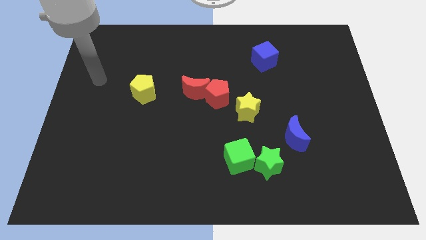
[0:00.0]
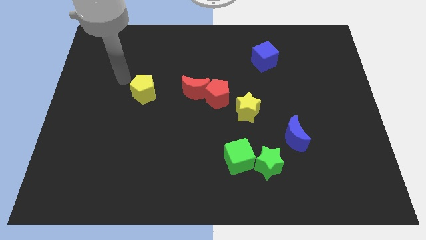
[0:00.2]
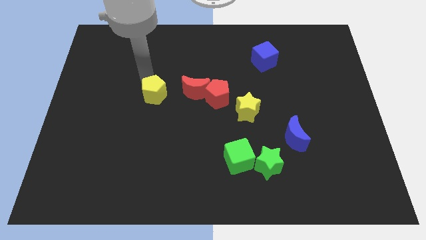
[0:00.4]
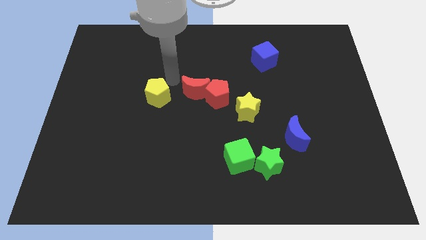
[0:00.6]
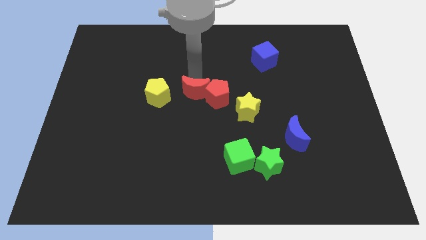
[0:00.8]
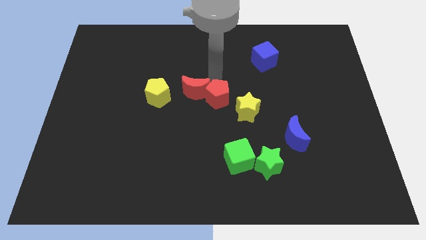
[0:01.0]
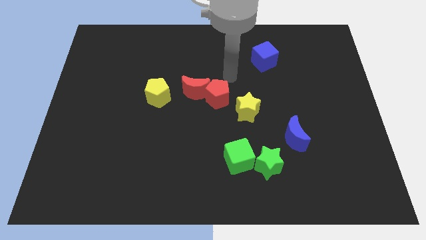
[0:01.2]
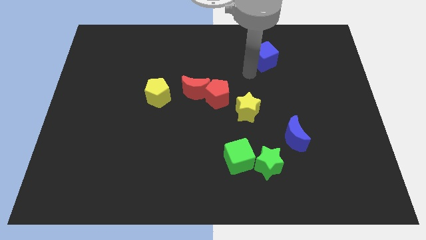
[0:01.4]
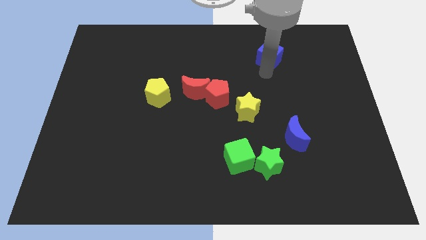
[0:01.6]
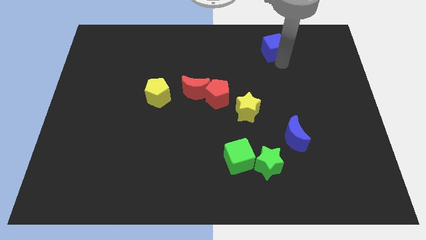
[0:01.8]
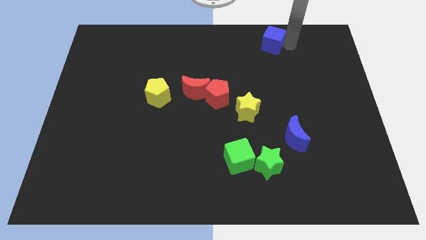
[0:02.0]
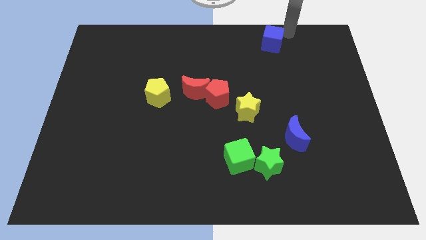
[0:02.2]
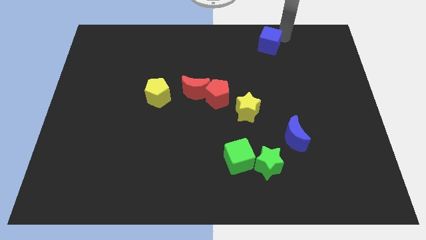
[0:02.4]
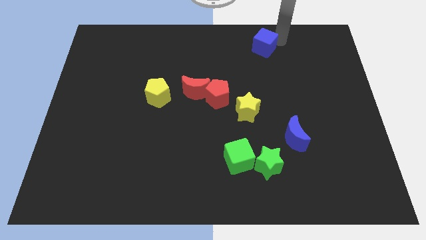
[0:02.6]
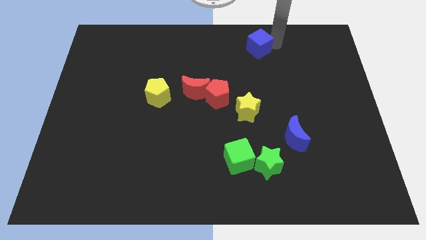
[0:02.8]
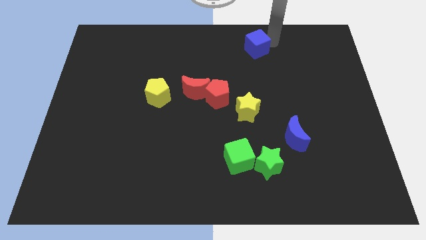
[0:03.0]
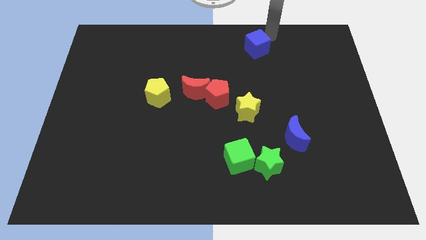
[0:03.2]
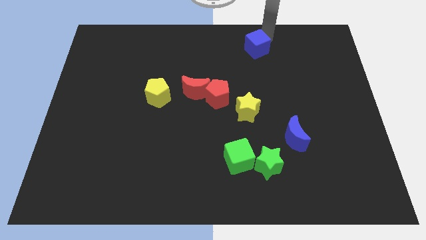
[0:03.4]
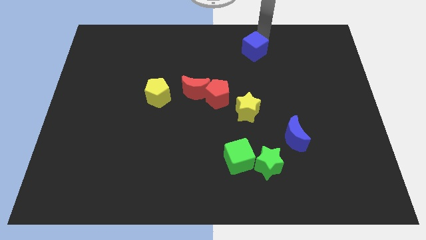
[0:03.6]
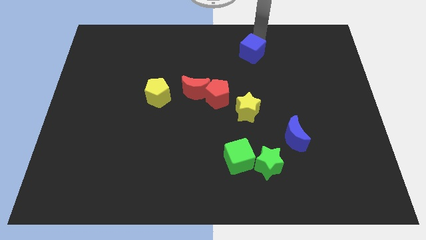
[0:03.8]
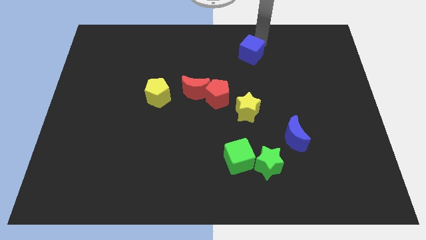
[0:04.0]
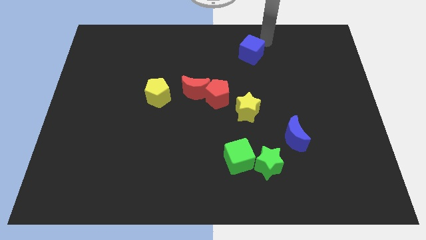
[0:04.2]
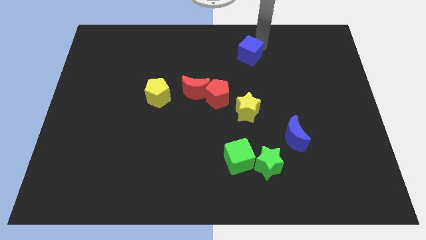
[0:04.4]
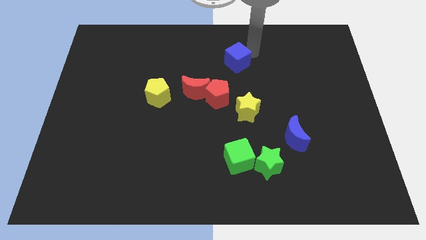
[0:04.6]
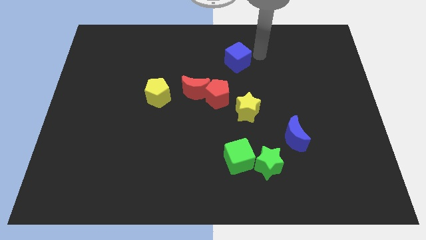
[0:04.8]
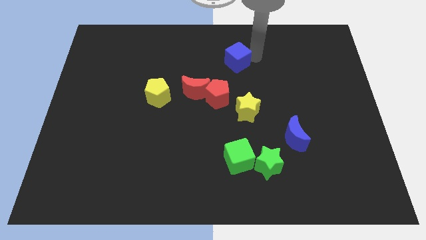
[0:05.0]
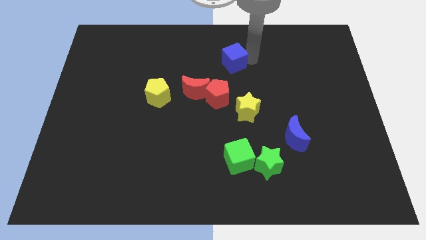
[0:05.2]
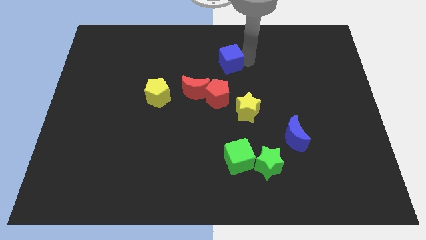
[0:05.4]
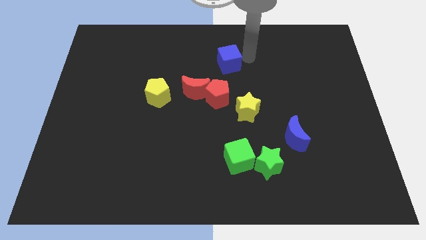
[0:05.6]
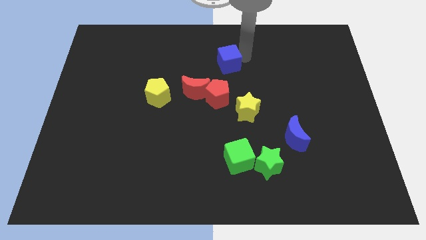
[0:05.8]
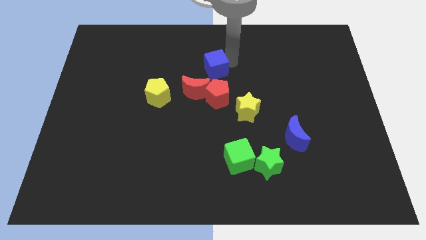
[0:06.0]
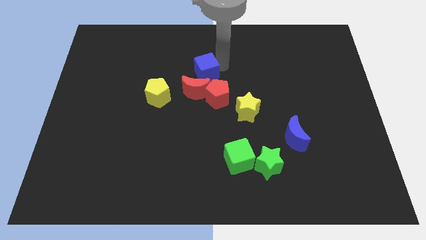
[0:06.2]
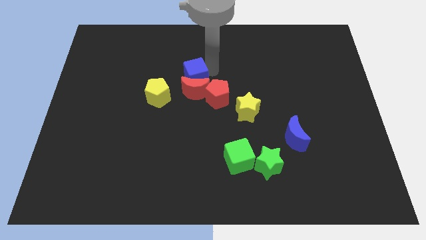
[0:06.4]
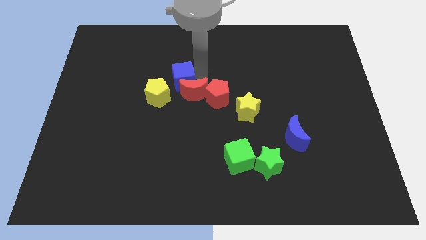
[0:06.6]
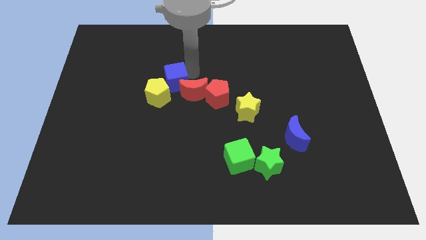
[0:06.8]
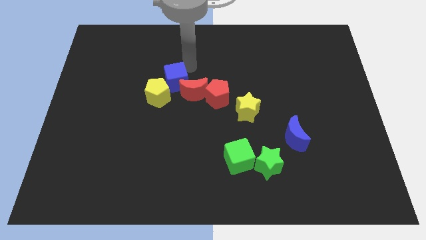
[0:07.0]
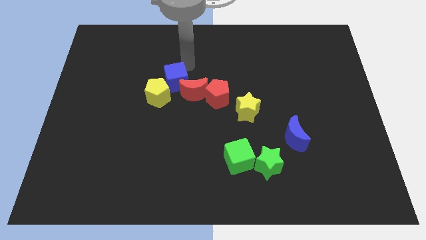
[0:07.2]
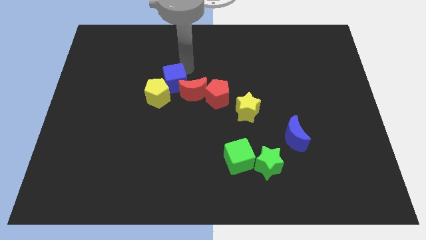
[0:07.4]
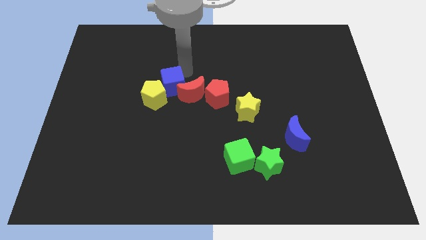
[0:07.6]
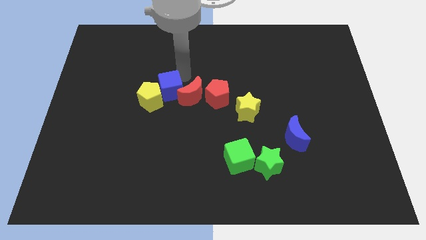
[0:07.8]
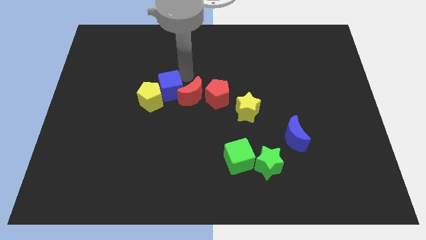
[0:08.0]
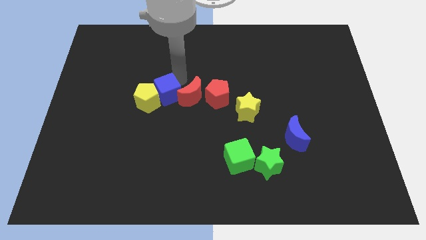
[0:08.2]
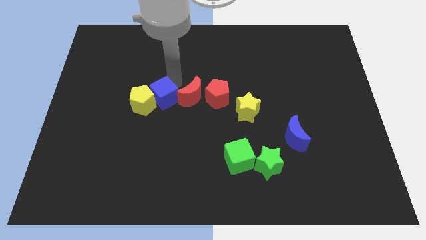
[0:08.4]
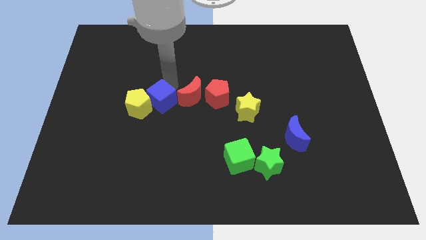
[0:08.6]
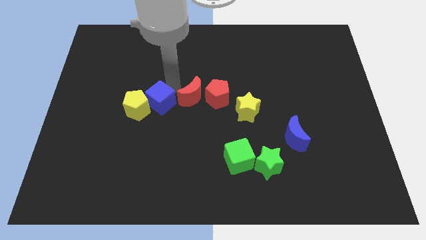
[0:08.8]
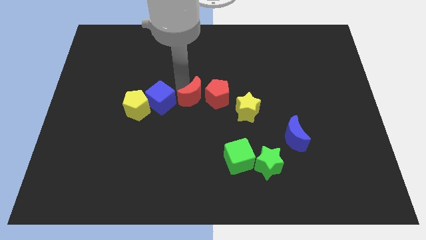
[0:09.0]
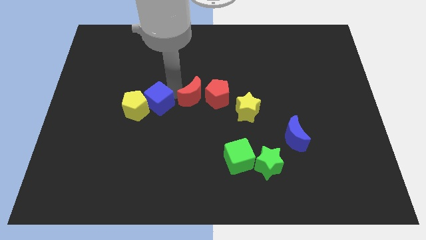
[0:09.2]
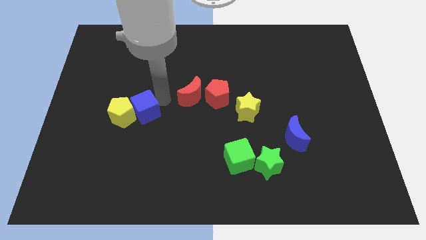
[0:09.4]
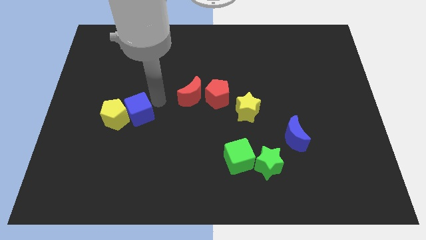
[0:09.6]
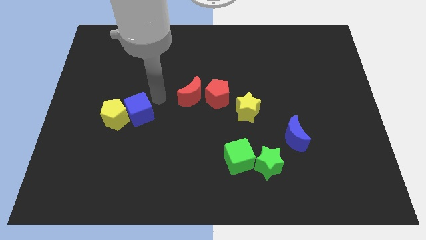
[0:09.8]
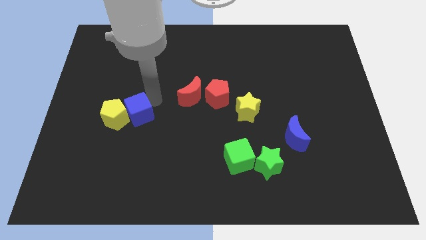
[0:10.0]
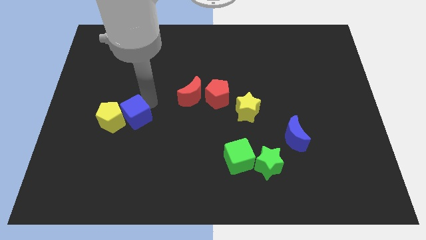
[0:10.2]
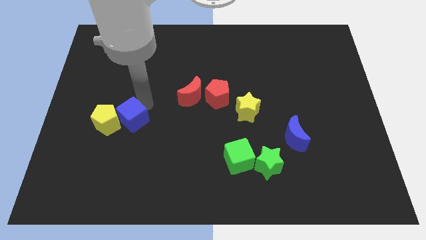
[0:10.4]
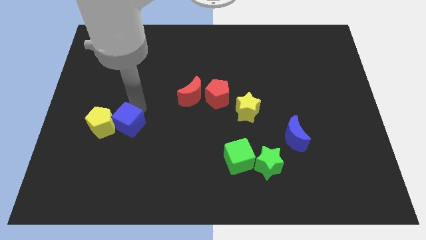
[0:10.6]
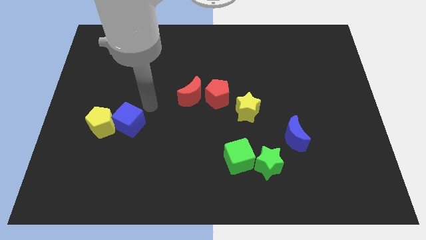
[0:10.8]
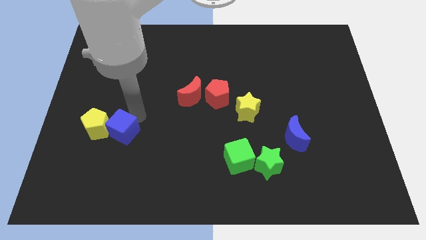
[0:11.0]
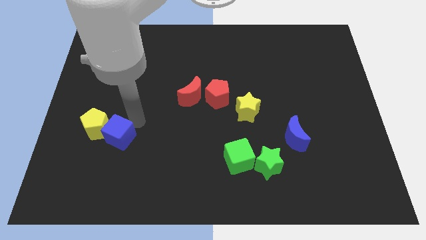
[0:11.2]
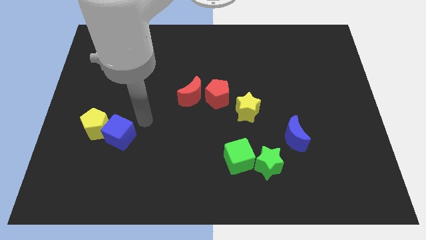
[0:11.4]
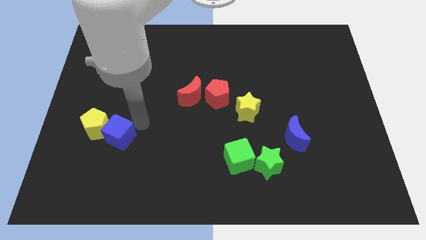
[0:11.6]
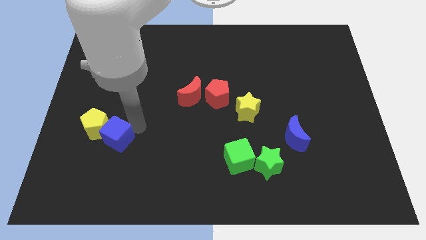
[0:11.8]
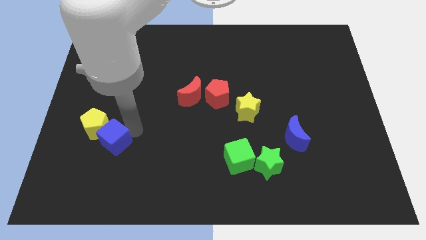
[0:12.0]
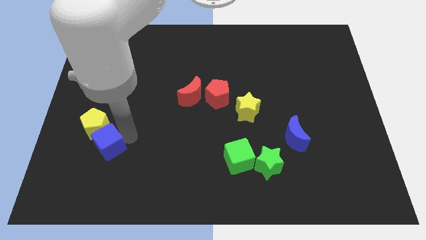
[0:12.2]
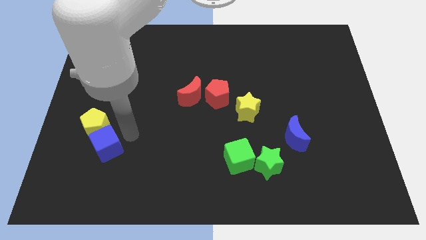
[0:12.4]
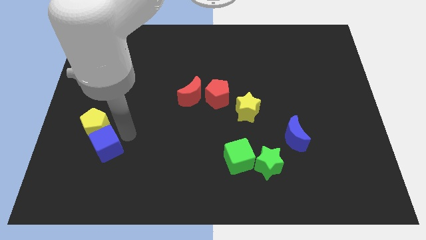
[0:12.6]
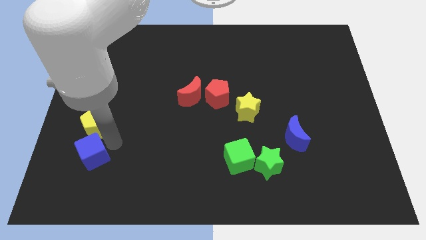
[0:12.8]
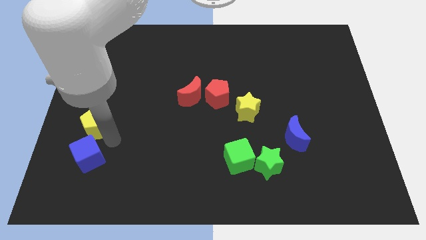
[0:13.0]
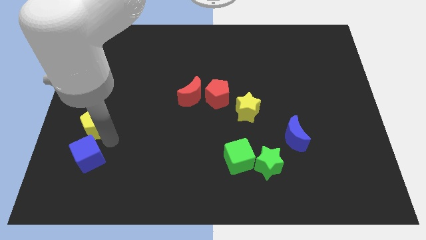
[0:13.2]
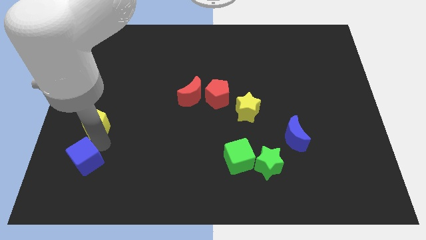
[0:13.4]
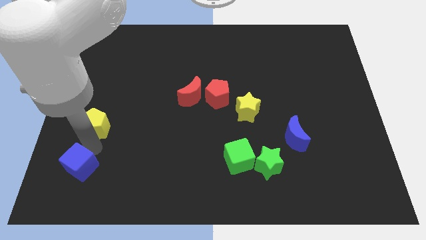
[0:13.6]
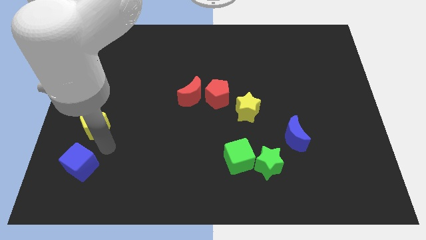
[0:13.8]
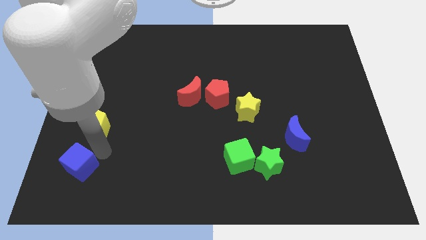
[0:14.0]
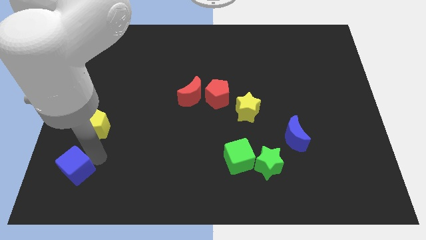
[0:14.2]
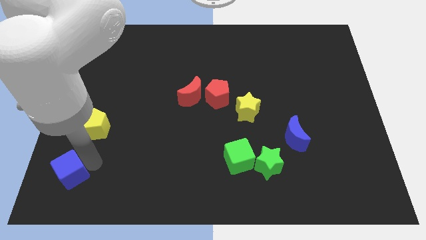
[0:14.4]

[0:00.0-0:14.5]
push the blue cube to the bottom left of the board

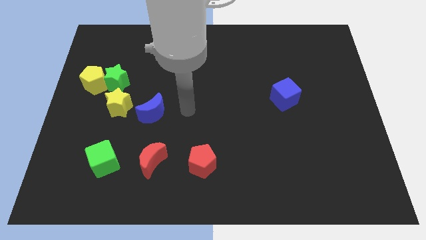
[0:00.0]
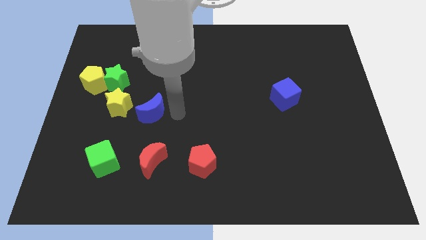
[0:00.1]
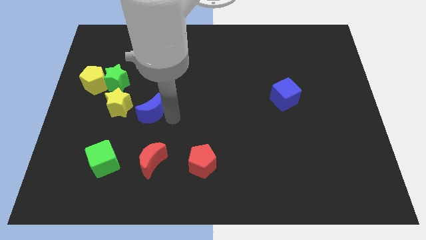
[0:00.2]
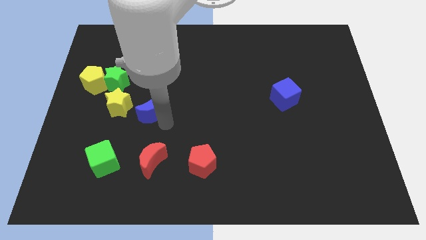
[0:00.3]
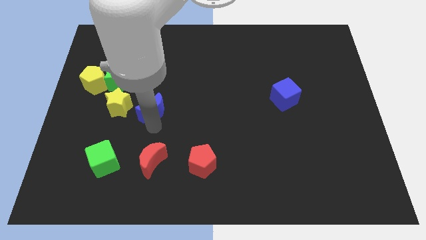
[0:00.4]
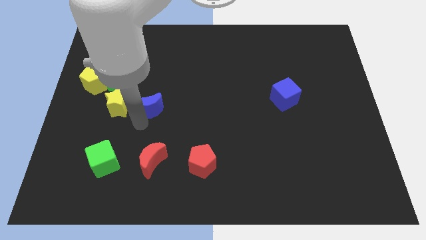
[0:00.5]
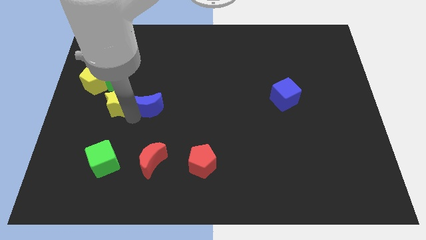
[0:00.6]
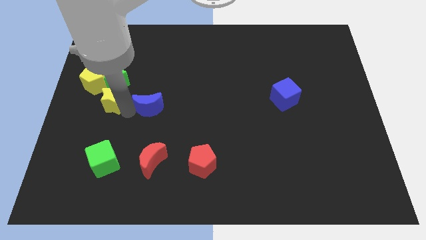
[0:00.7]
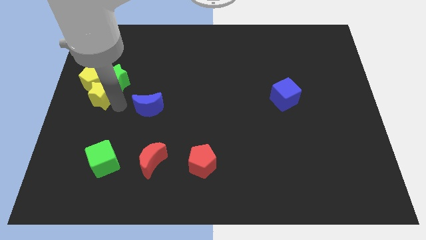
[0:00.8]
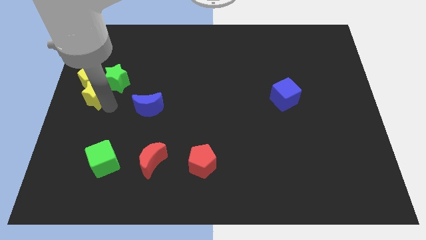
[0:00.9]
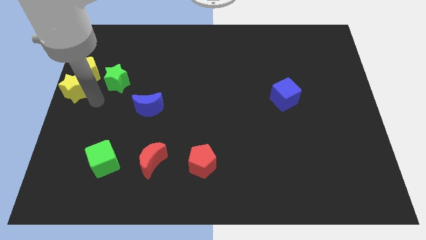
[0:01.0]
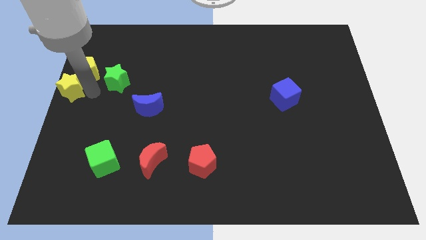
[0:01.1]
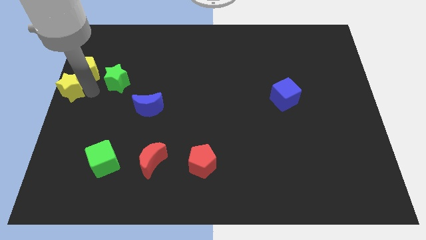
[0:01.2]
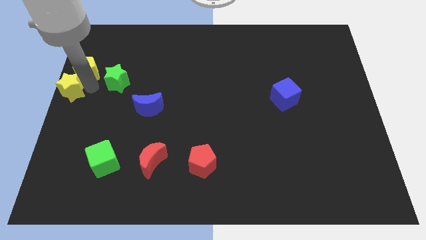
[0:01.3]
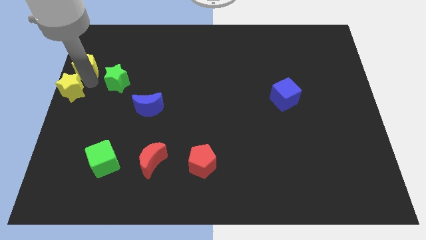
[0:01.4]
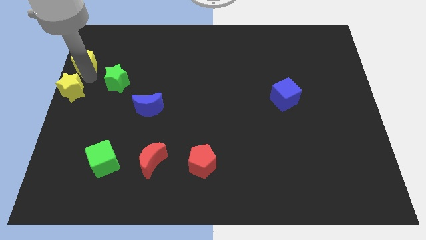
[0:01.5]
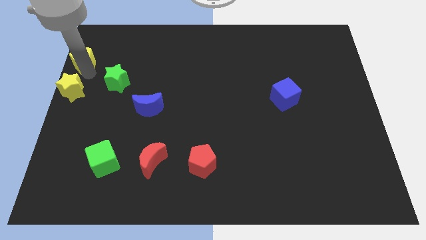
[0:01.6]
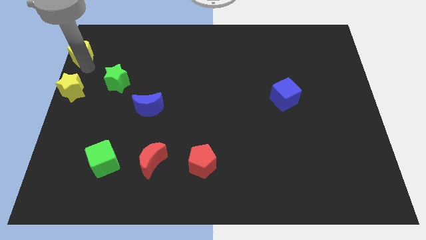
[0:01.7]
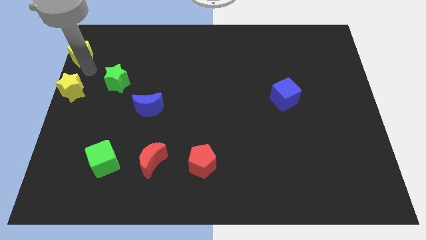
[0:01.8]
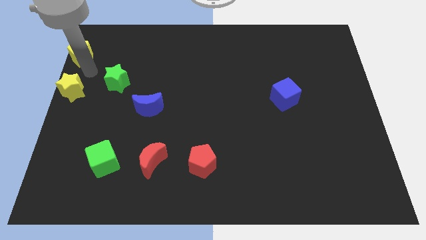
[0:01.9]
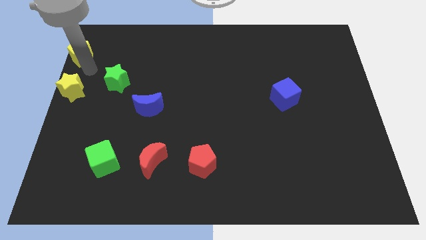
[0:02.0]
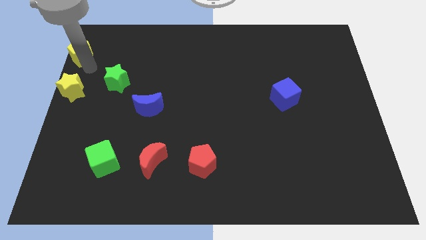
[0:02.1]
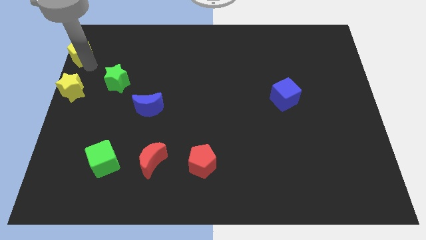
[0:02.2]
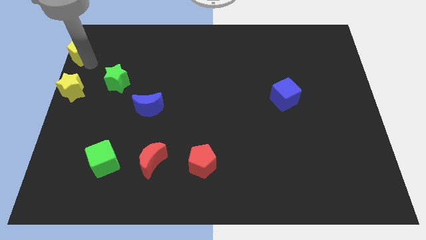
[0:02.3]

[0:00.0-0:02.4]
slide the yellow pentagon to the top left
